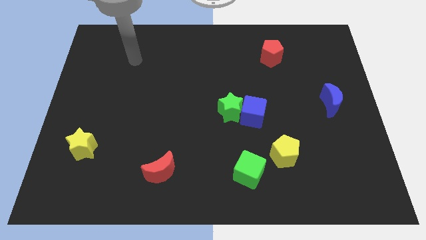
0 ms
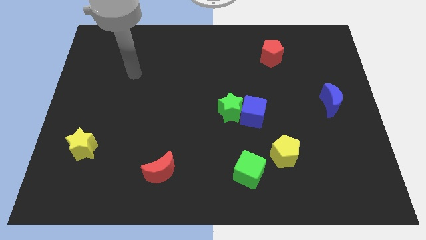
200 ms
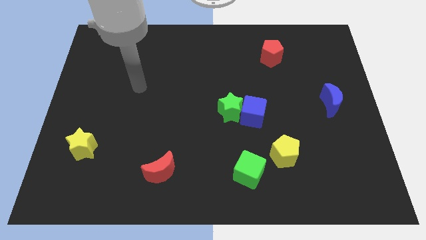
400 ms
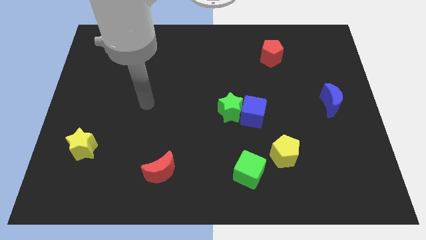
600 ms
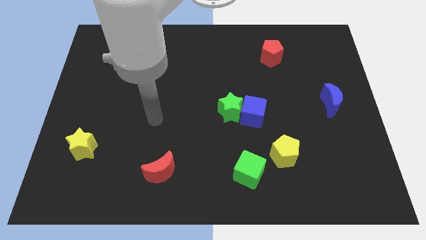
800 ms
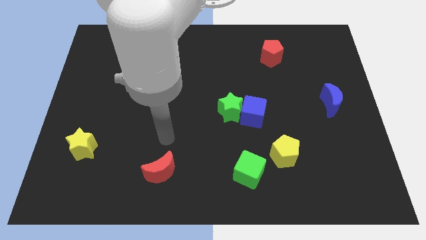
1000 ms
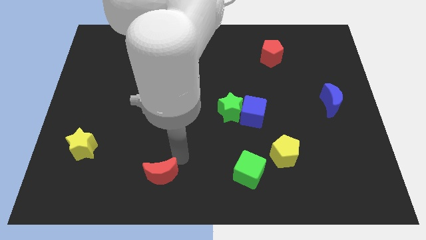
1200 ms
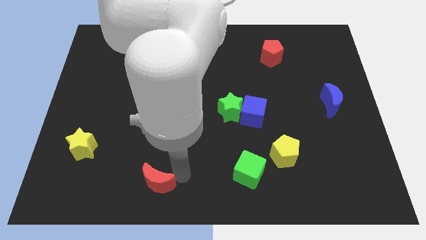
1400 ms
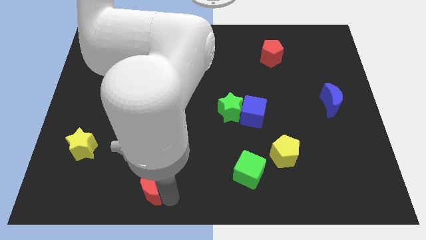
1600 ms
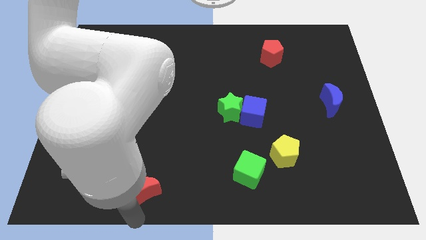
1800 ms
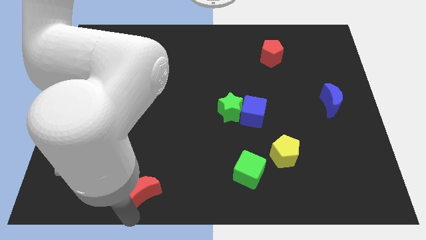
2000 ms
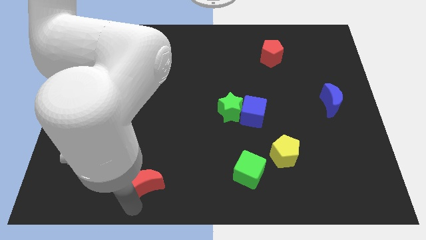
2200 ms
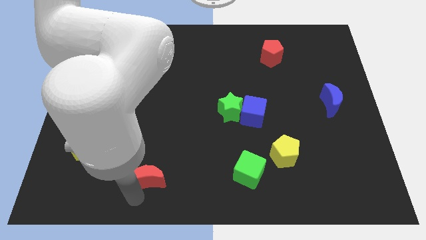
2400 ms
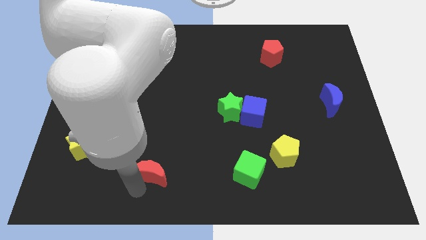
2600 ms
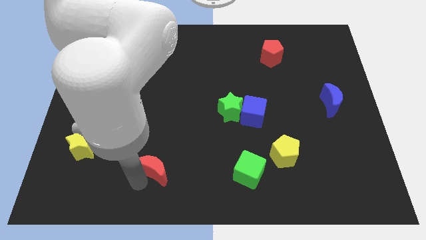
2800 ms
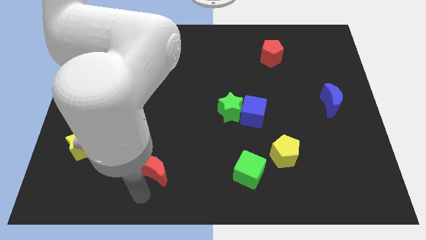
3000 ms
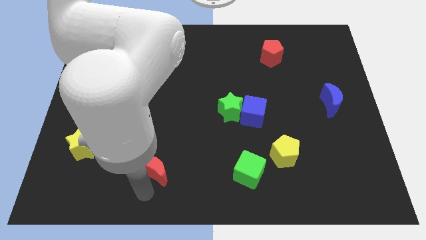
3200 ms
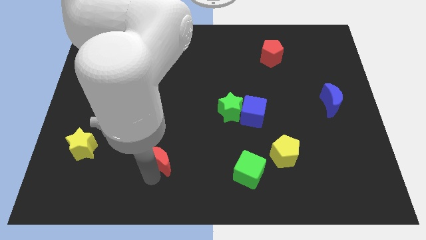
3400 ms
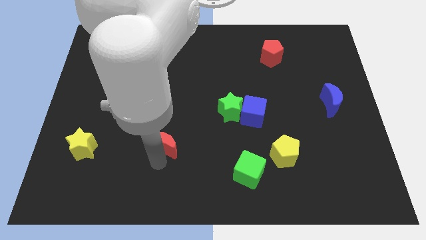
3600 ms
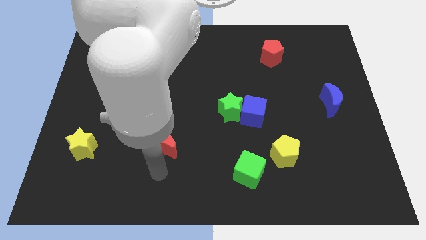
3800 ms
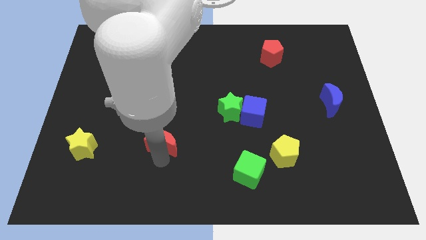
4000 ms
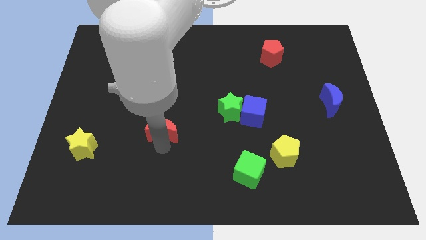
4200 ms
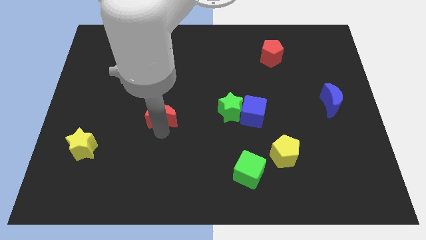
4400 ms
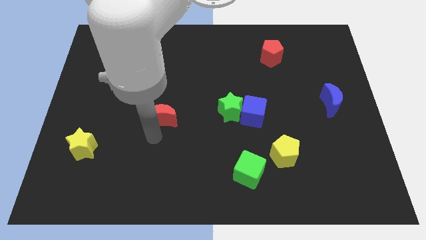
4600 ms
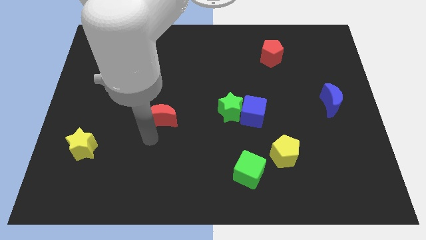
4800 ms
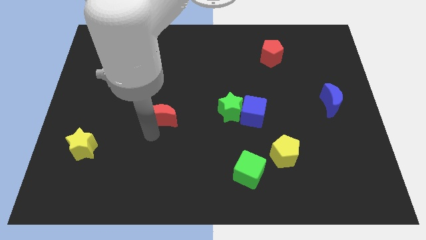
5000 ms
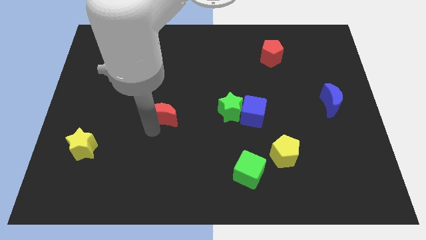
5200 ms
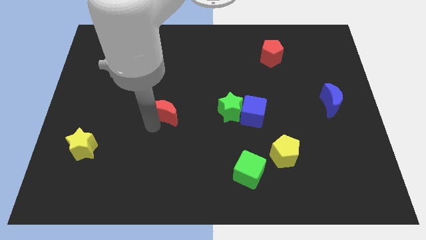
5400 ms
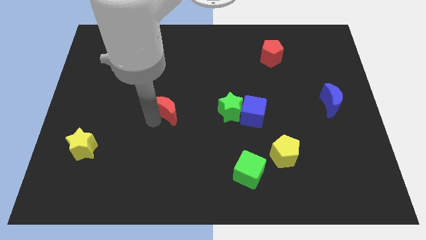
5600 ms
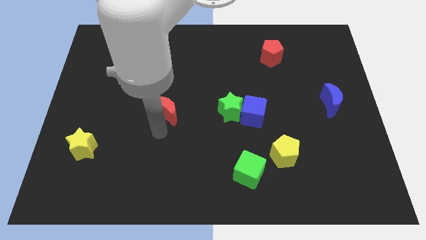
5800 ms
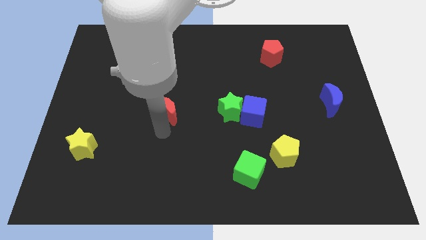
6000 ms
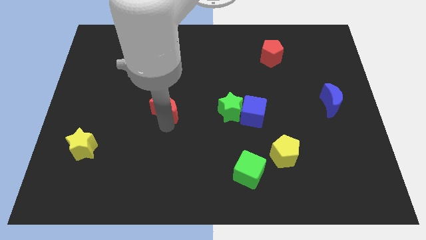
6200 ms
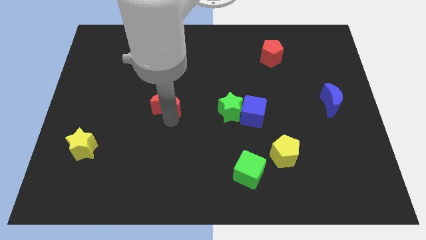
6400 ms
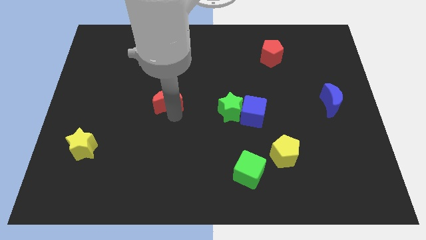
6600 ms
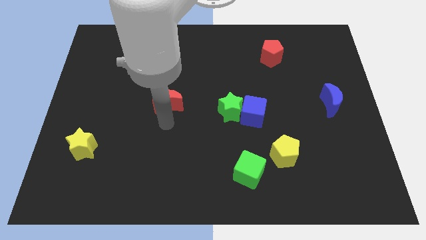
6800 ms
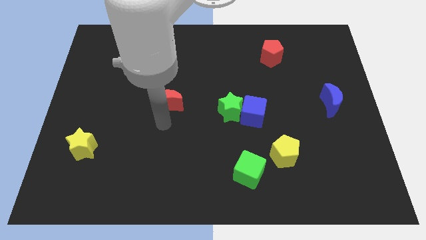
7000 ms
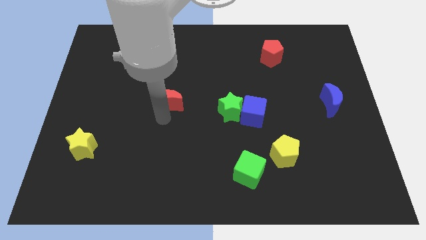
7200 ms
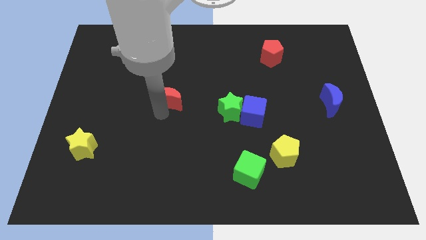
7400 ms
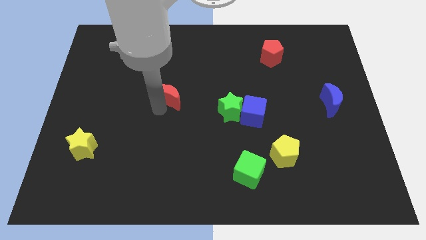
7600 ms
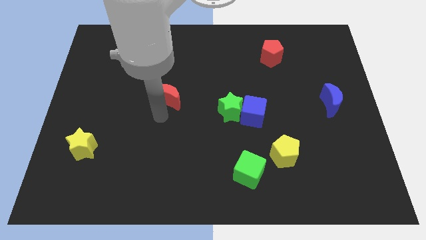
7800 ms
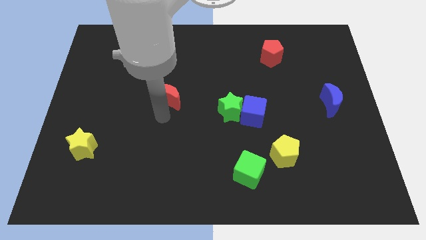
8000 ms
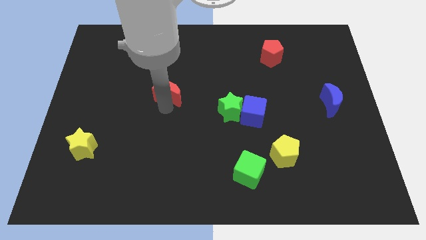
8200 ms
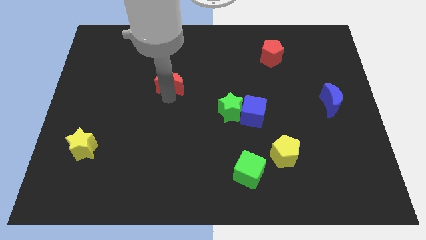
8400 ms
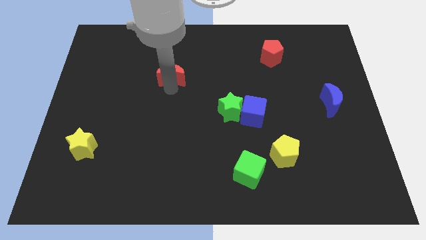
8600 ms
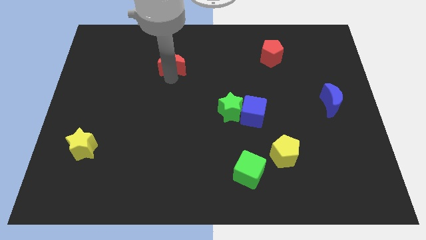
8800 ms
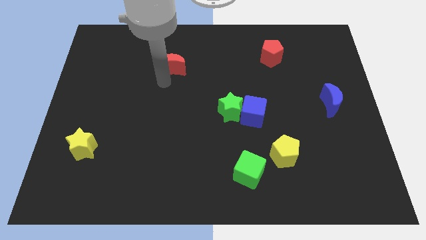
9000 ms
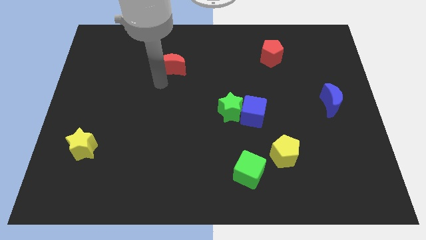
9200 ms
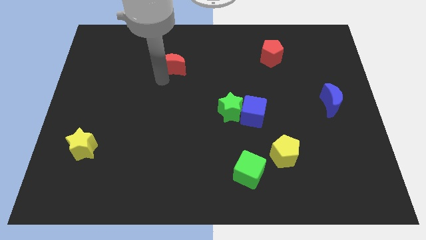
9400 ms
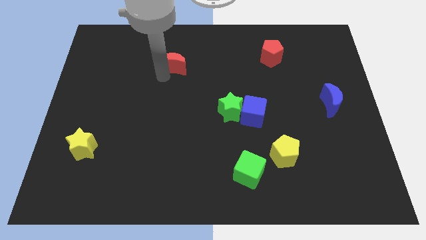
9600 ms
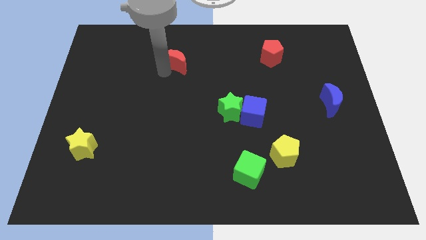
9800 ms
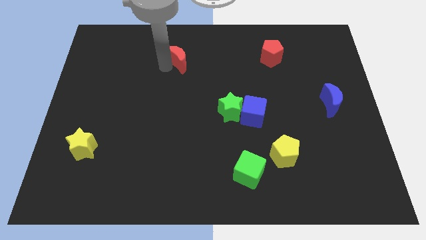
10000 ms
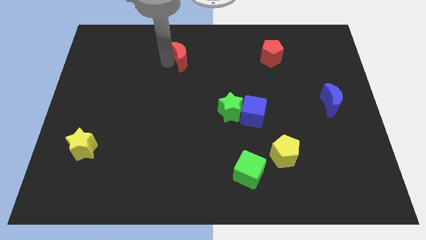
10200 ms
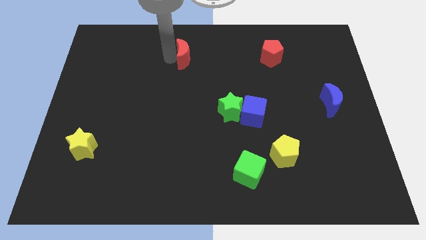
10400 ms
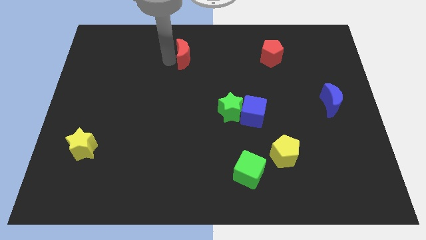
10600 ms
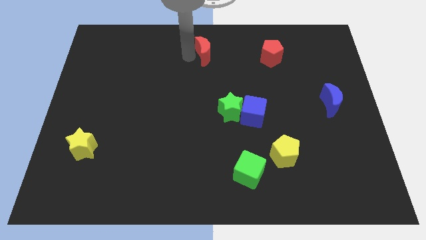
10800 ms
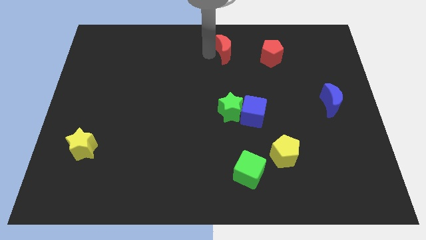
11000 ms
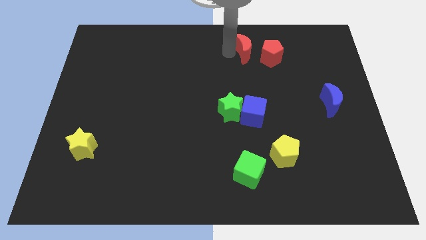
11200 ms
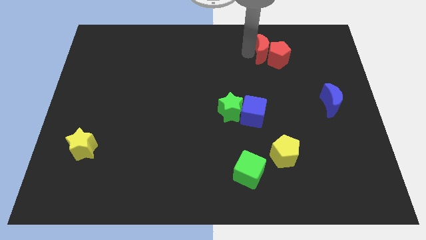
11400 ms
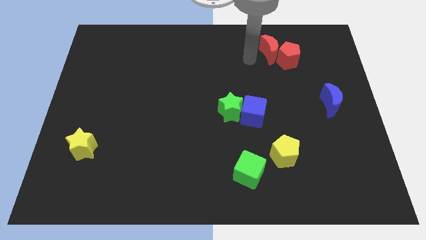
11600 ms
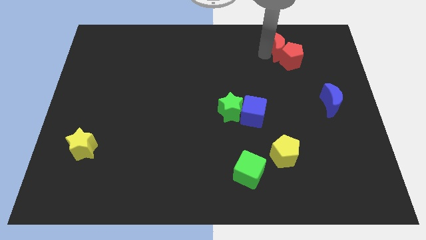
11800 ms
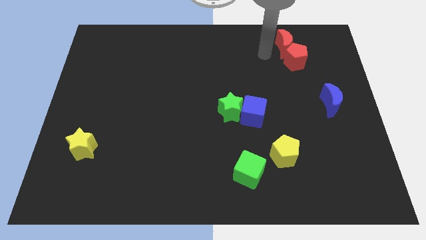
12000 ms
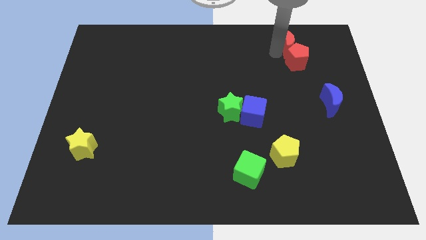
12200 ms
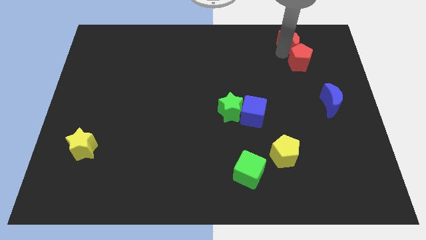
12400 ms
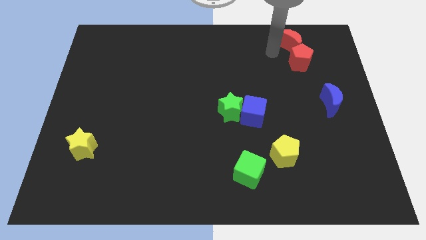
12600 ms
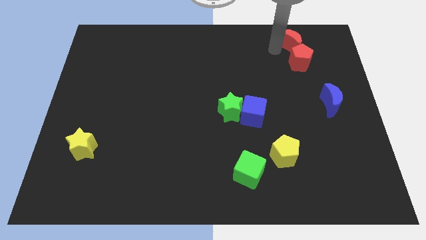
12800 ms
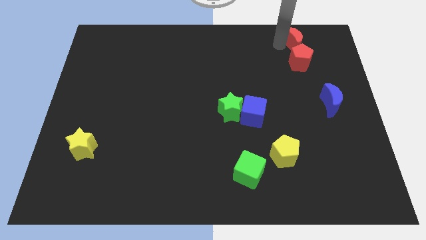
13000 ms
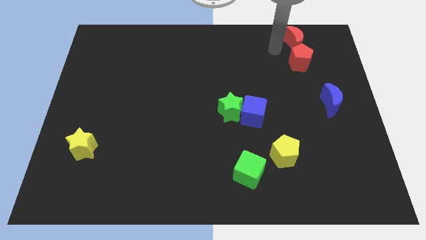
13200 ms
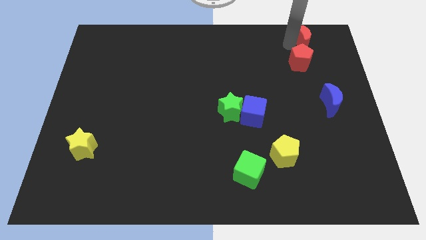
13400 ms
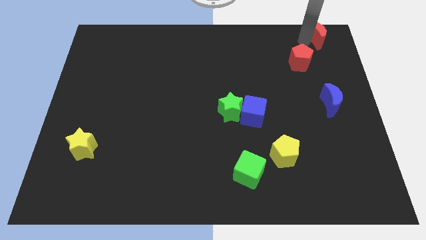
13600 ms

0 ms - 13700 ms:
push the red moon to the top right of the board
